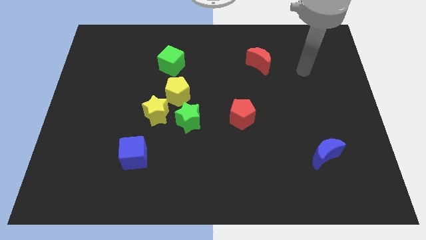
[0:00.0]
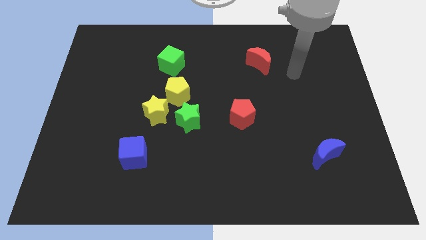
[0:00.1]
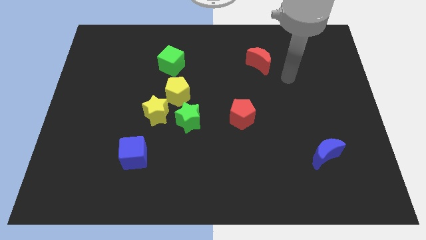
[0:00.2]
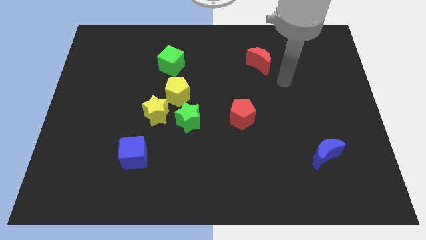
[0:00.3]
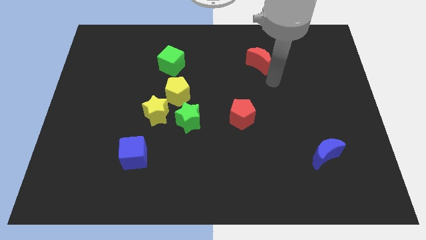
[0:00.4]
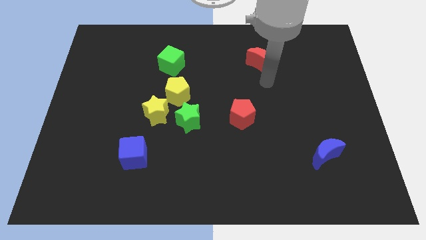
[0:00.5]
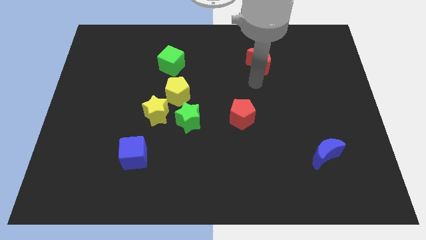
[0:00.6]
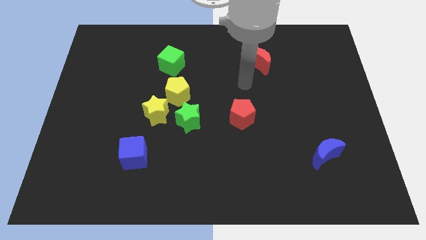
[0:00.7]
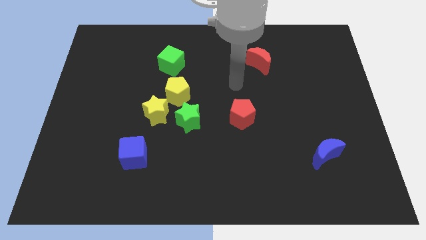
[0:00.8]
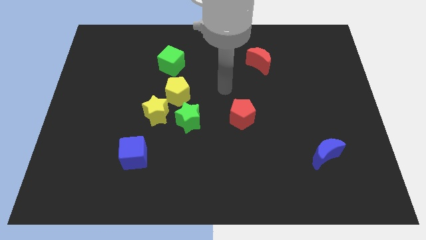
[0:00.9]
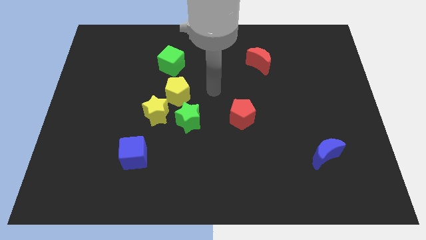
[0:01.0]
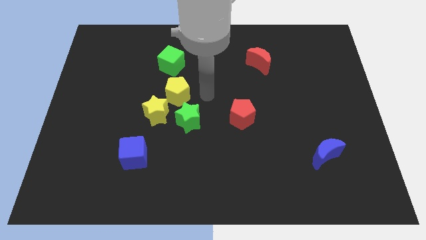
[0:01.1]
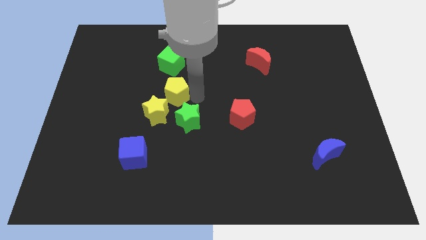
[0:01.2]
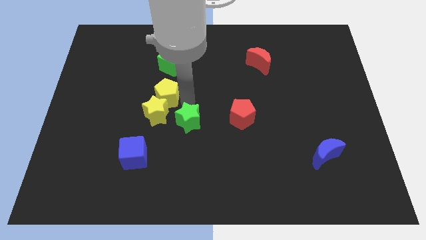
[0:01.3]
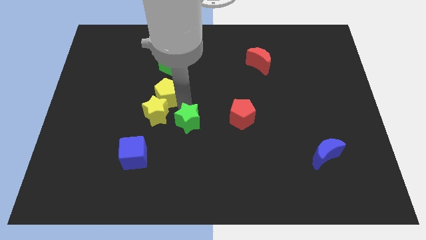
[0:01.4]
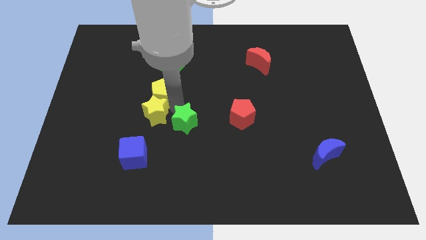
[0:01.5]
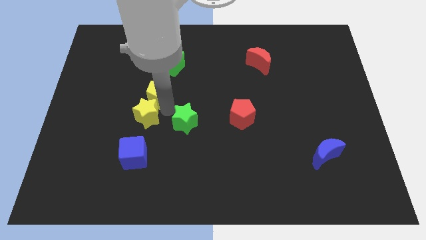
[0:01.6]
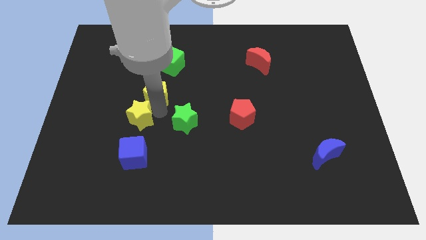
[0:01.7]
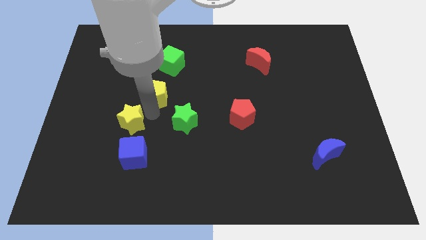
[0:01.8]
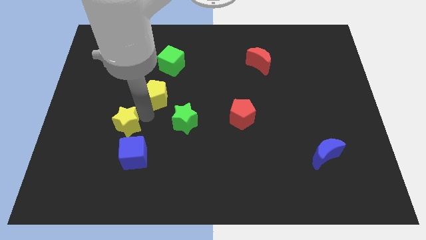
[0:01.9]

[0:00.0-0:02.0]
pull the yellow star apart from the yellow pentagon and green star

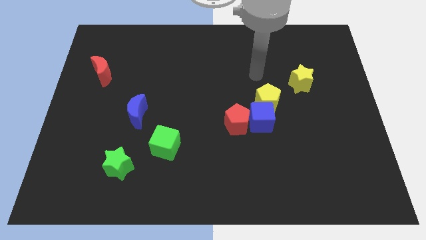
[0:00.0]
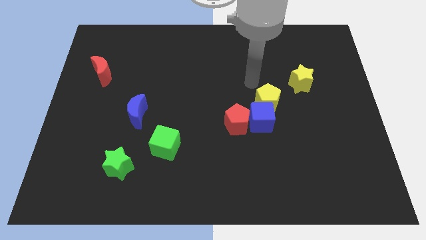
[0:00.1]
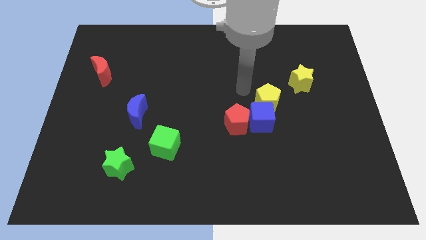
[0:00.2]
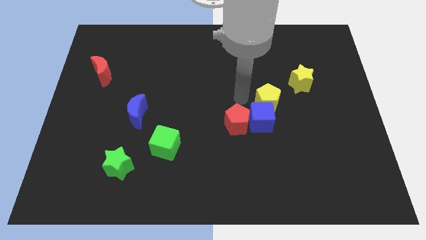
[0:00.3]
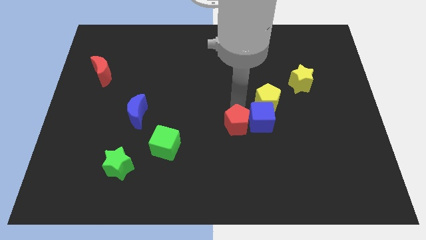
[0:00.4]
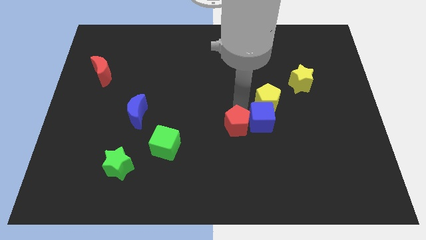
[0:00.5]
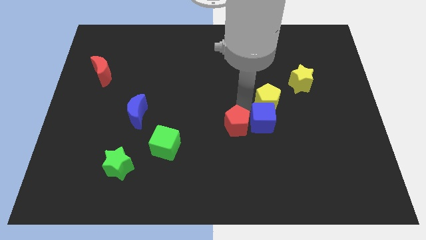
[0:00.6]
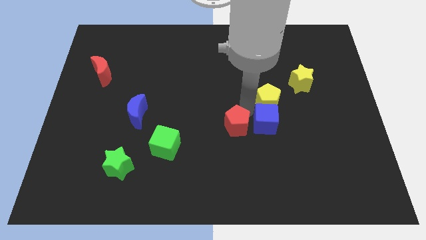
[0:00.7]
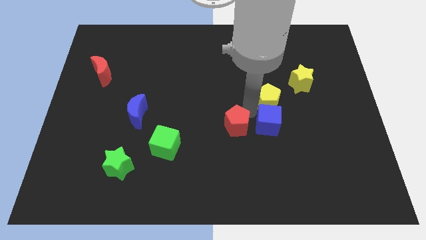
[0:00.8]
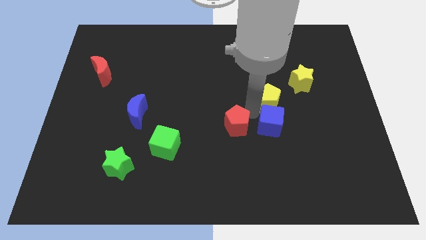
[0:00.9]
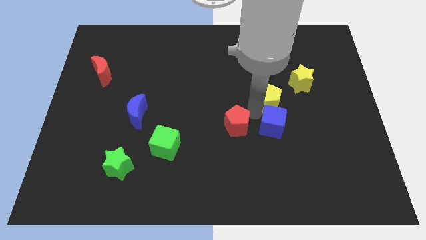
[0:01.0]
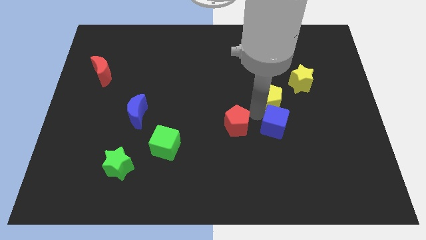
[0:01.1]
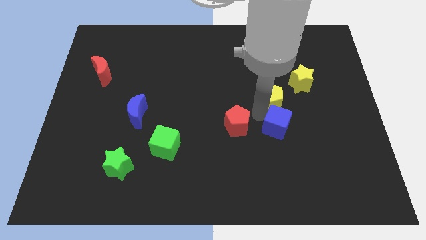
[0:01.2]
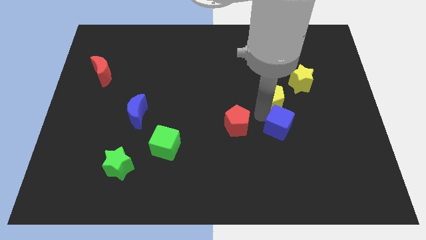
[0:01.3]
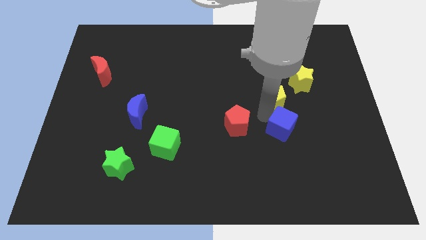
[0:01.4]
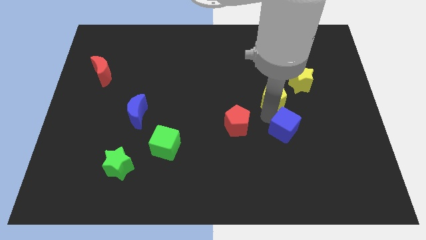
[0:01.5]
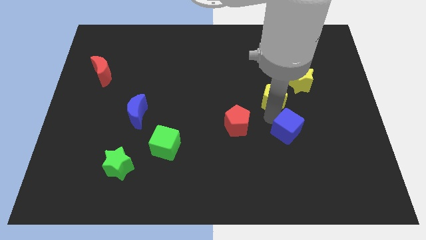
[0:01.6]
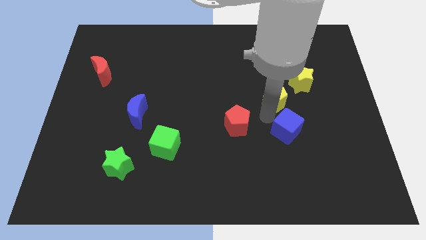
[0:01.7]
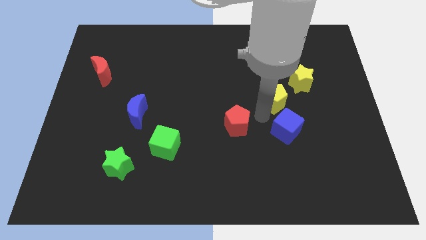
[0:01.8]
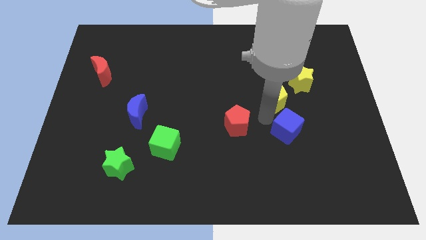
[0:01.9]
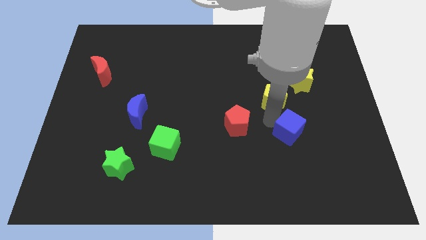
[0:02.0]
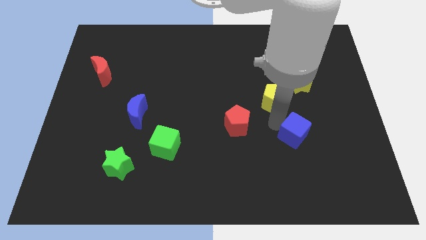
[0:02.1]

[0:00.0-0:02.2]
move the blue cube away from the yellow pentagon and red pentagon

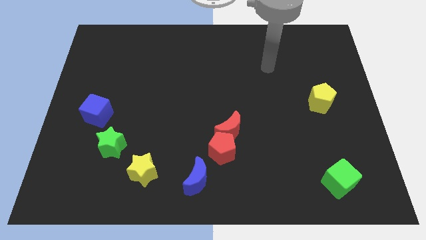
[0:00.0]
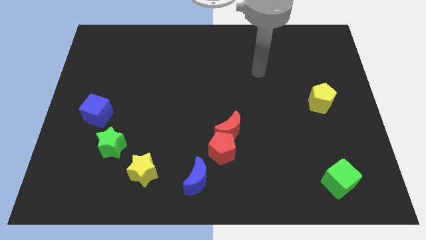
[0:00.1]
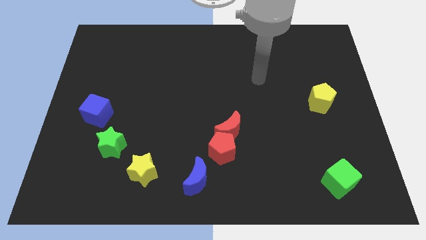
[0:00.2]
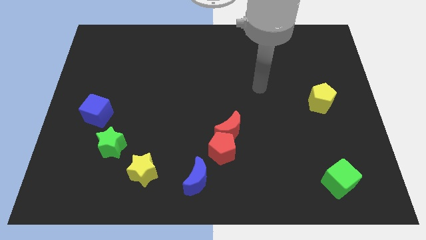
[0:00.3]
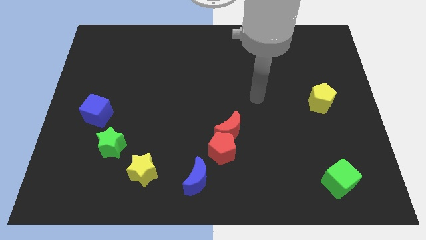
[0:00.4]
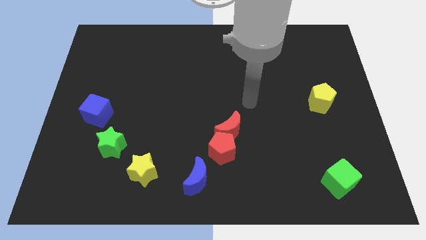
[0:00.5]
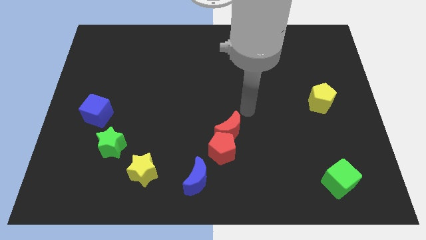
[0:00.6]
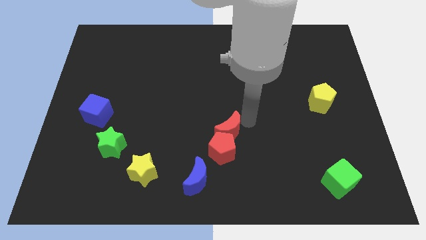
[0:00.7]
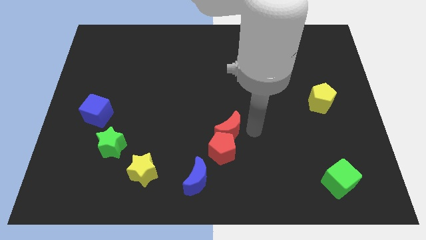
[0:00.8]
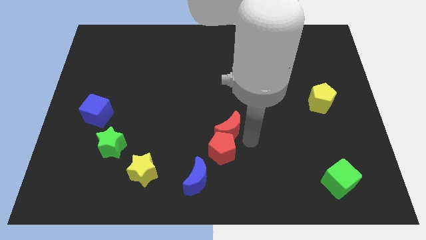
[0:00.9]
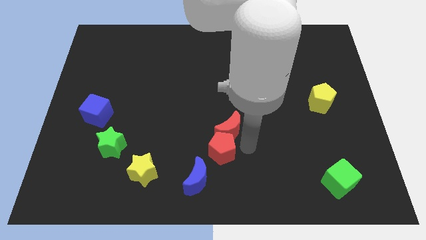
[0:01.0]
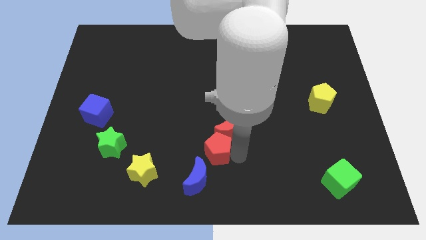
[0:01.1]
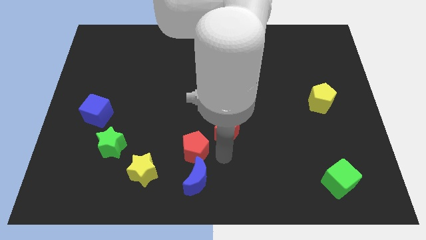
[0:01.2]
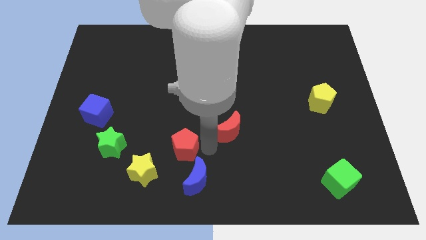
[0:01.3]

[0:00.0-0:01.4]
move the red moon away from the red pentagon

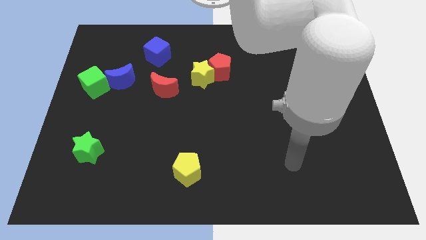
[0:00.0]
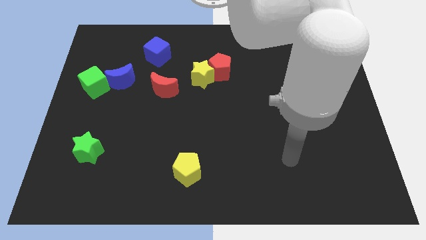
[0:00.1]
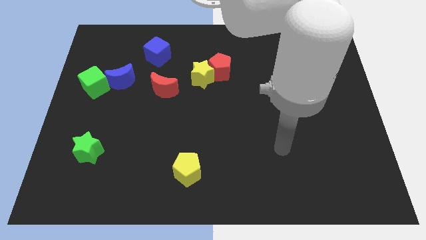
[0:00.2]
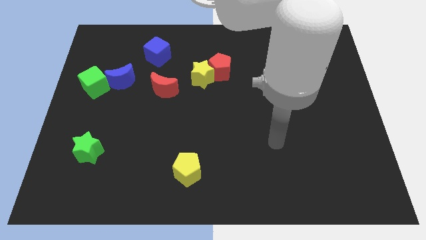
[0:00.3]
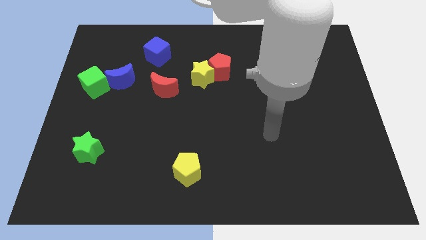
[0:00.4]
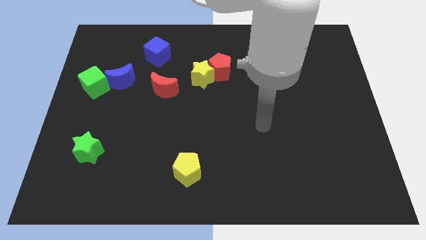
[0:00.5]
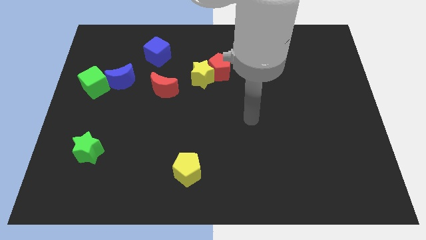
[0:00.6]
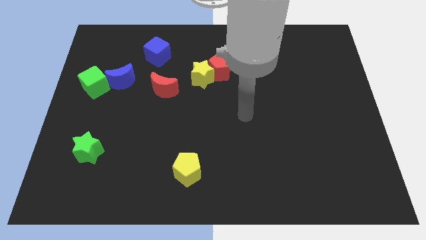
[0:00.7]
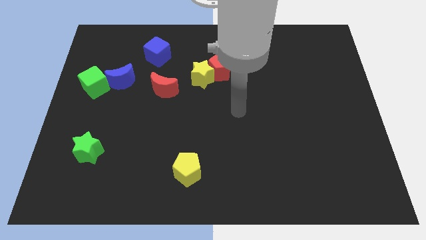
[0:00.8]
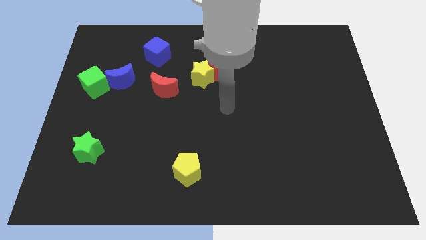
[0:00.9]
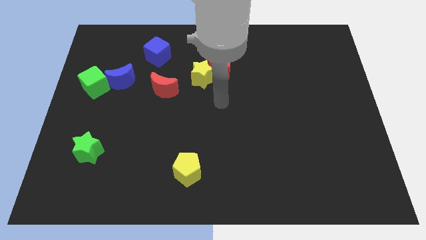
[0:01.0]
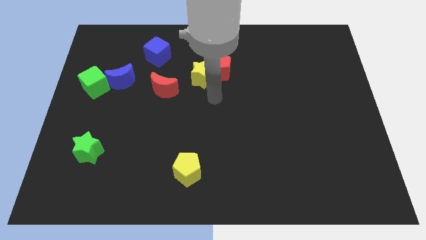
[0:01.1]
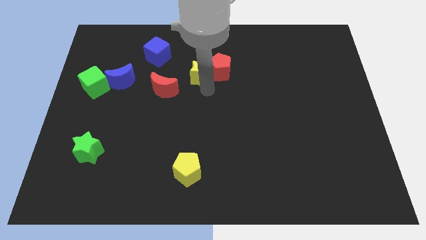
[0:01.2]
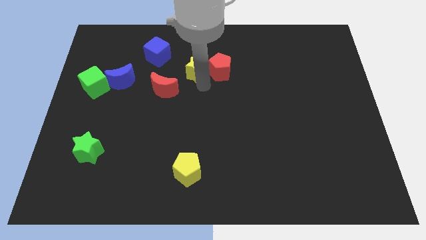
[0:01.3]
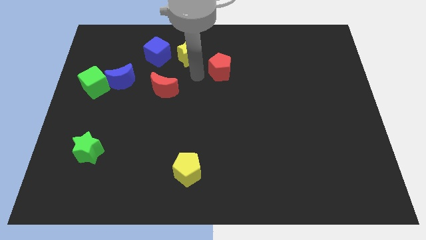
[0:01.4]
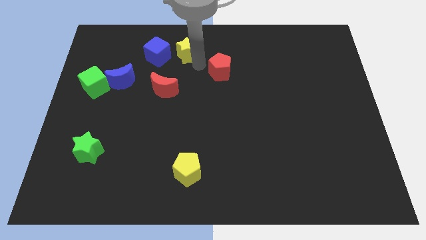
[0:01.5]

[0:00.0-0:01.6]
separate the red pentagon from the yellow star

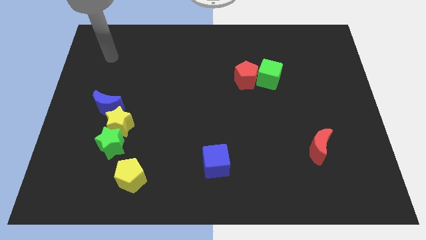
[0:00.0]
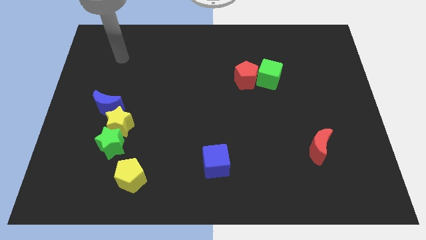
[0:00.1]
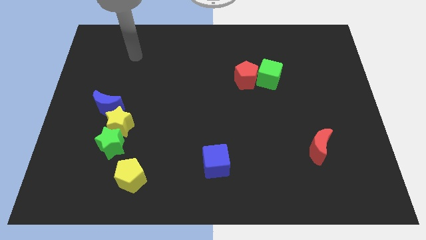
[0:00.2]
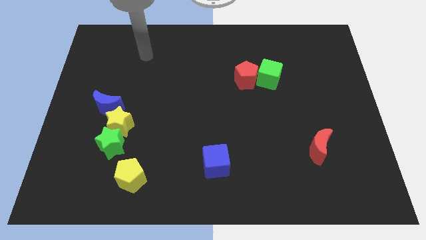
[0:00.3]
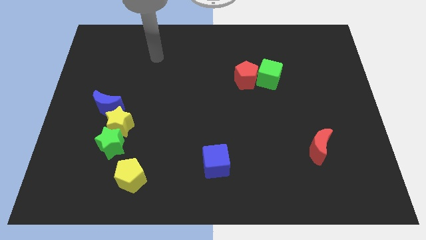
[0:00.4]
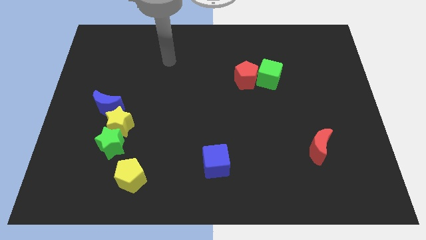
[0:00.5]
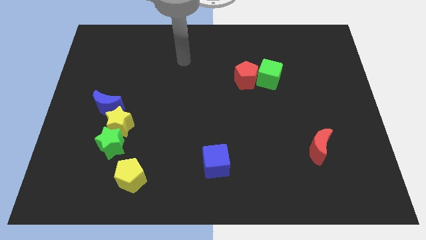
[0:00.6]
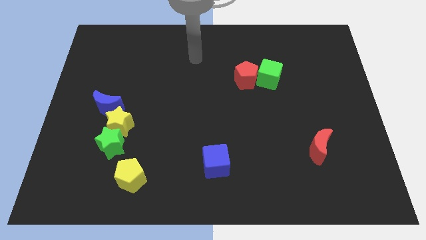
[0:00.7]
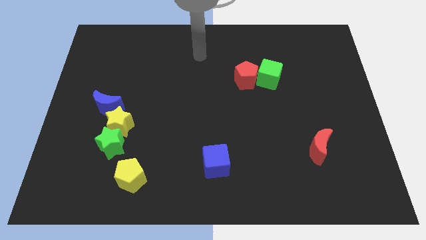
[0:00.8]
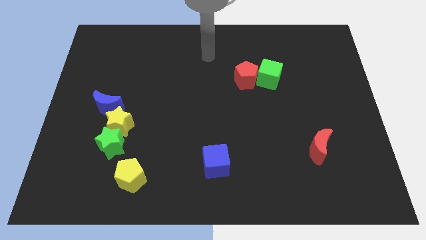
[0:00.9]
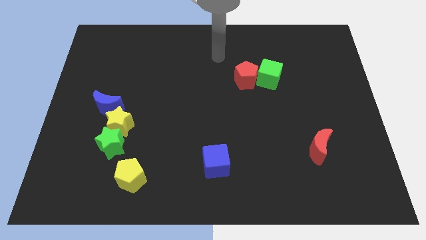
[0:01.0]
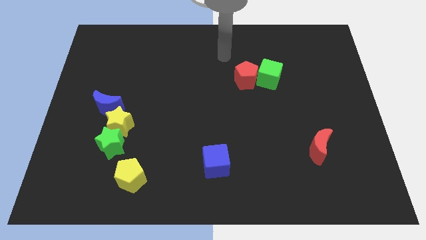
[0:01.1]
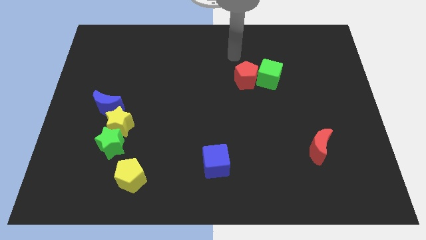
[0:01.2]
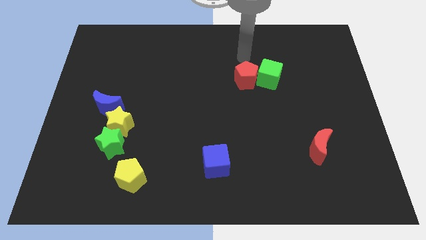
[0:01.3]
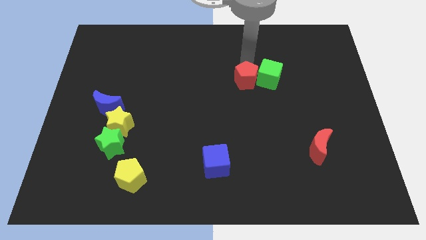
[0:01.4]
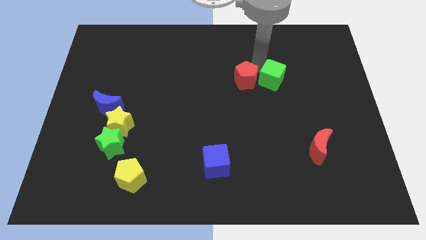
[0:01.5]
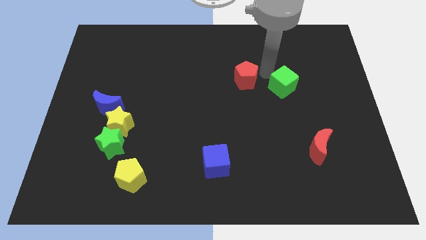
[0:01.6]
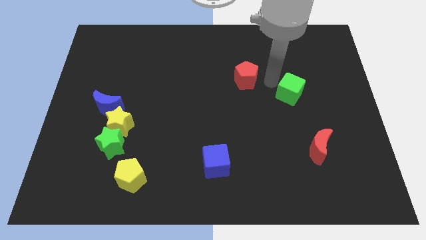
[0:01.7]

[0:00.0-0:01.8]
move the red pentagon away from the green cube

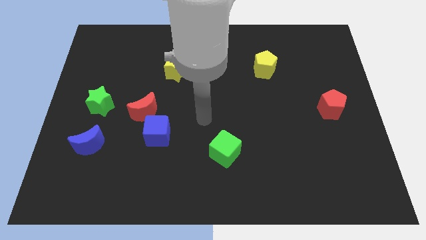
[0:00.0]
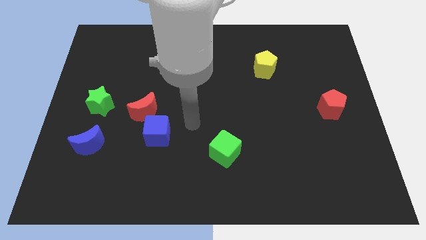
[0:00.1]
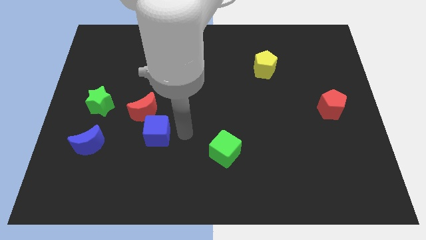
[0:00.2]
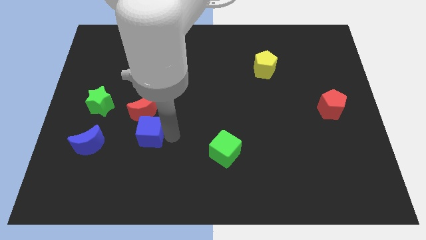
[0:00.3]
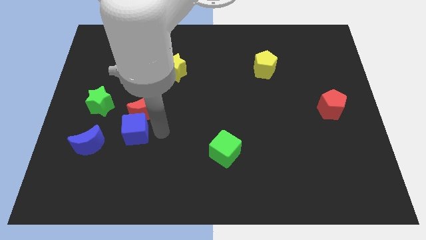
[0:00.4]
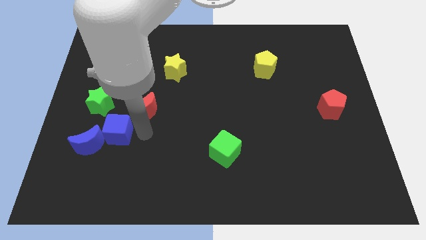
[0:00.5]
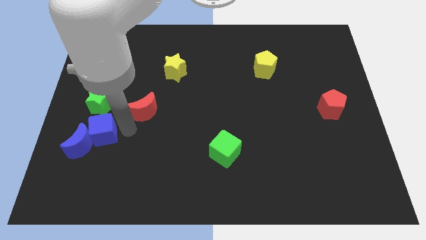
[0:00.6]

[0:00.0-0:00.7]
move the red moon away from the blue cube
